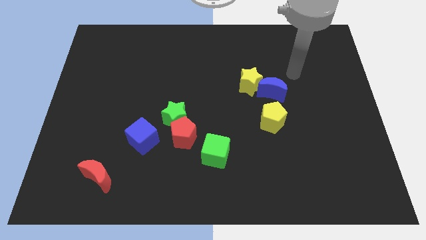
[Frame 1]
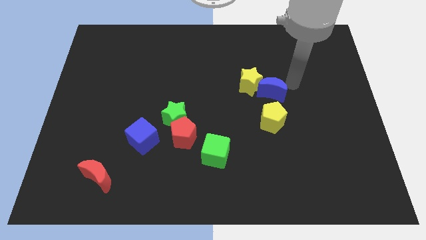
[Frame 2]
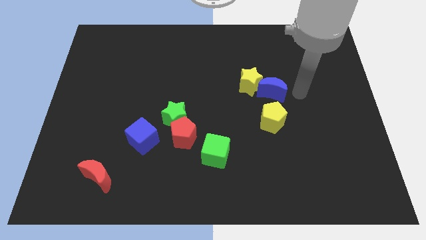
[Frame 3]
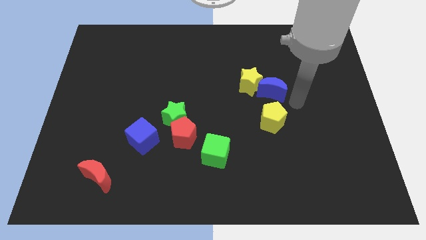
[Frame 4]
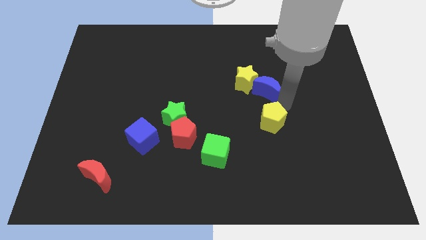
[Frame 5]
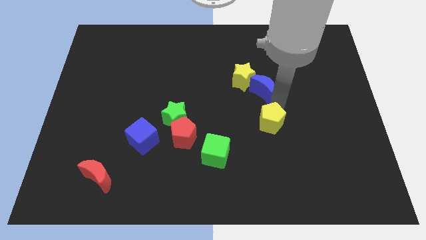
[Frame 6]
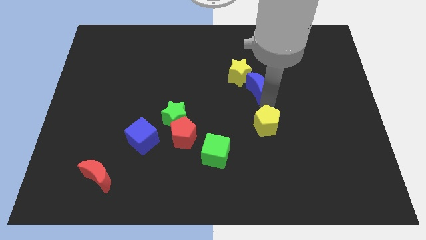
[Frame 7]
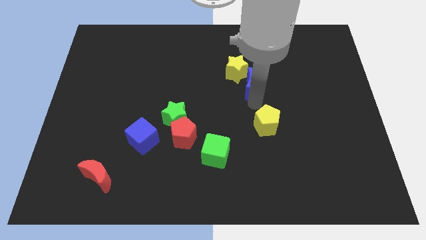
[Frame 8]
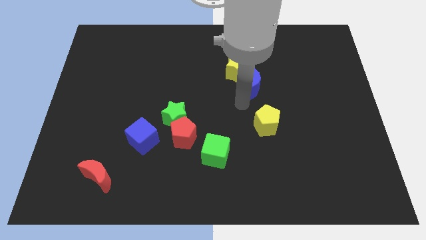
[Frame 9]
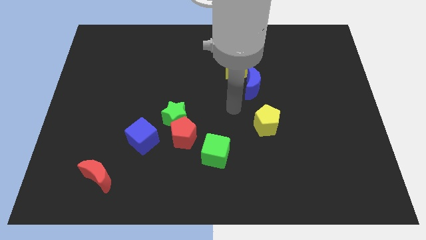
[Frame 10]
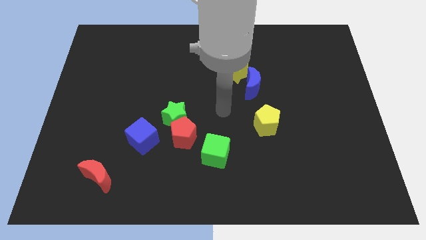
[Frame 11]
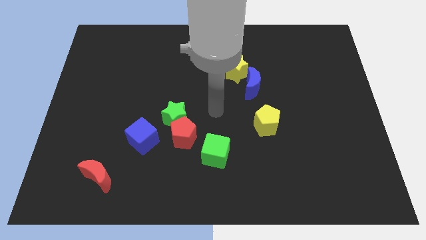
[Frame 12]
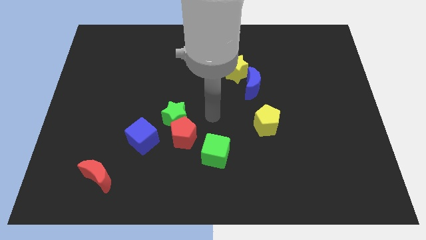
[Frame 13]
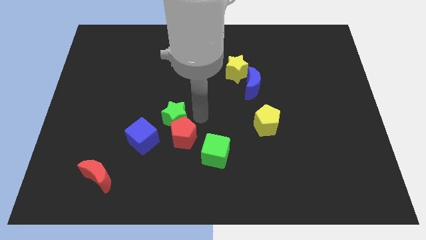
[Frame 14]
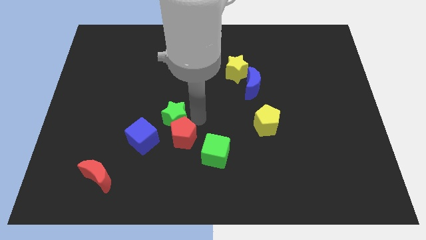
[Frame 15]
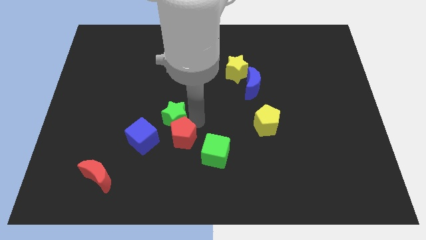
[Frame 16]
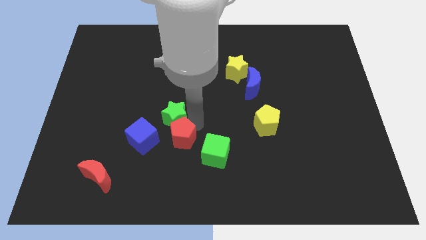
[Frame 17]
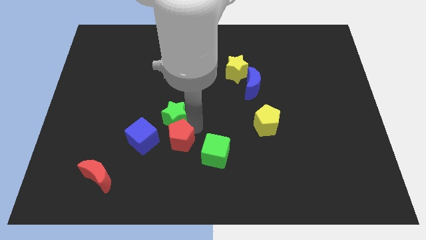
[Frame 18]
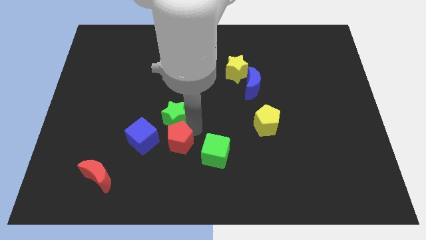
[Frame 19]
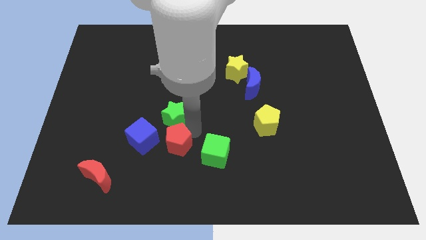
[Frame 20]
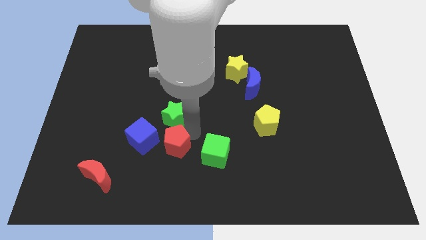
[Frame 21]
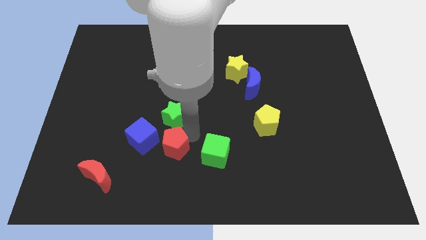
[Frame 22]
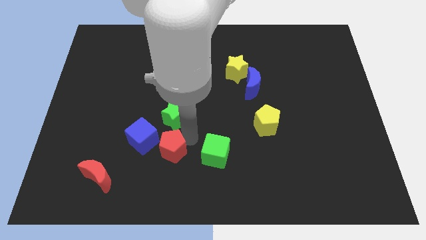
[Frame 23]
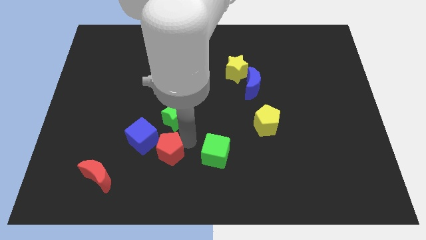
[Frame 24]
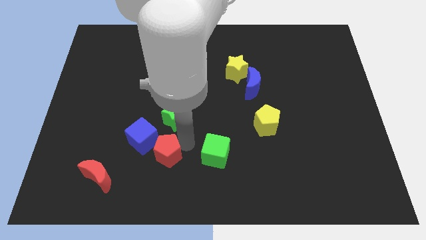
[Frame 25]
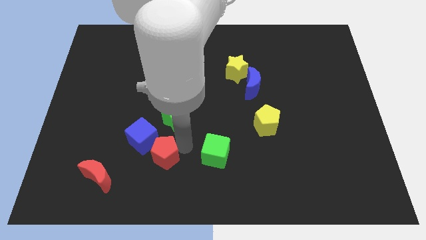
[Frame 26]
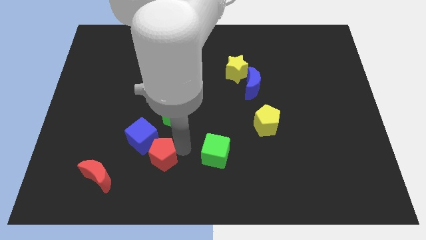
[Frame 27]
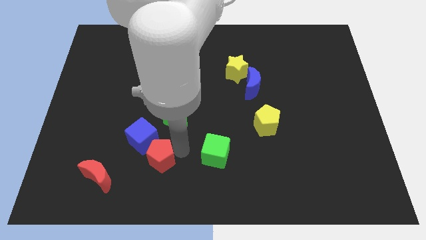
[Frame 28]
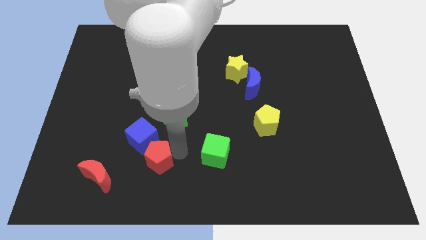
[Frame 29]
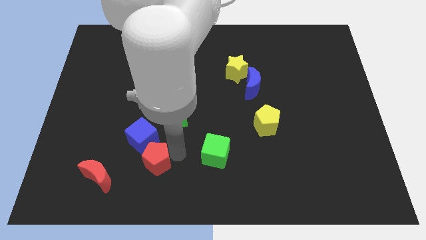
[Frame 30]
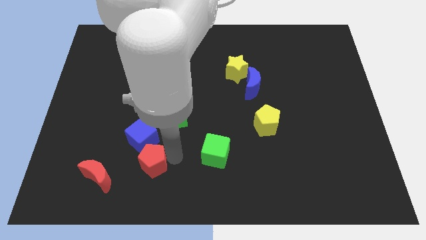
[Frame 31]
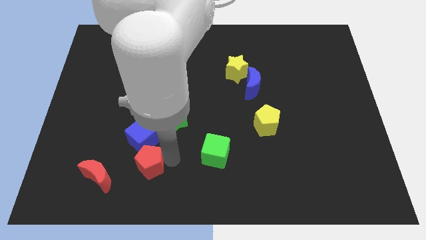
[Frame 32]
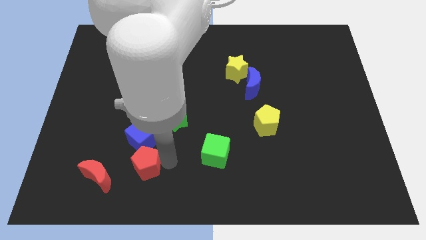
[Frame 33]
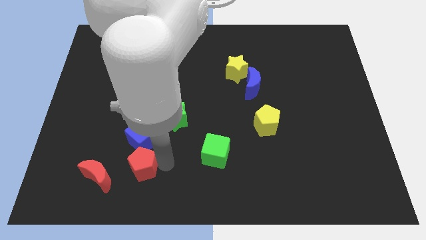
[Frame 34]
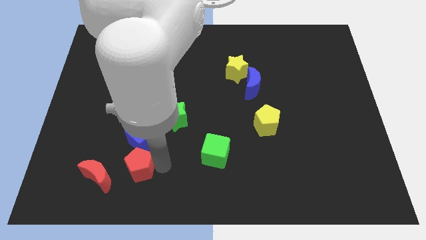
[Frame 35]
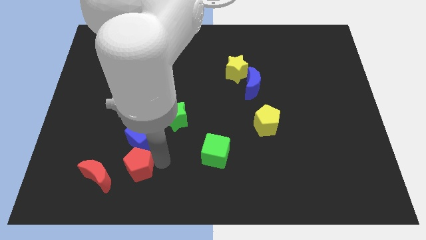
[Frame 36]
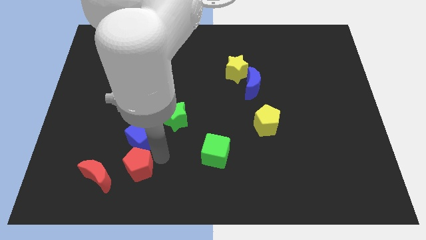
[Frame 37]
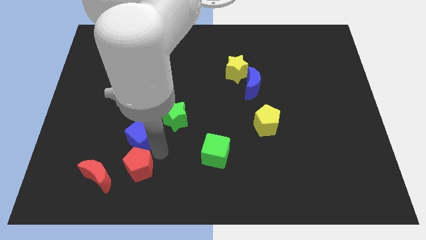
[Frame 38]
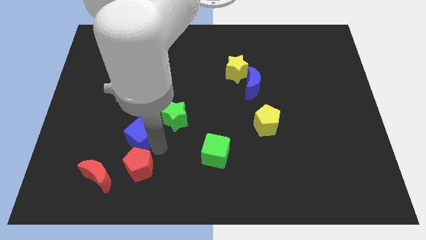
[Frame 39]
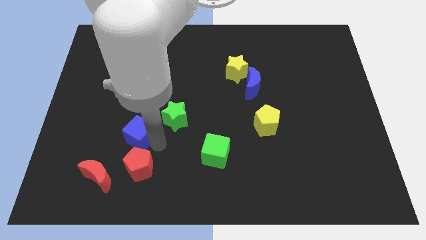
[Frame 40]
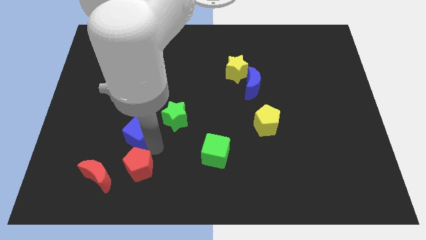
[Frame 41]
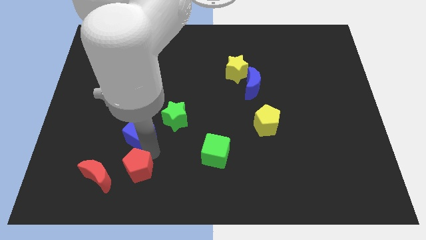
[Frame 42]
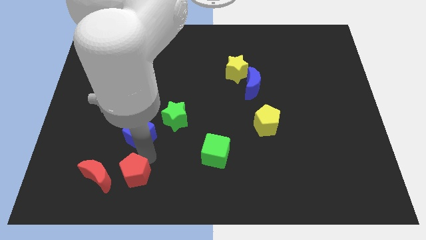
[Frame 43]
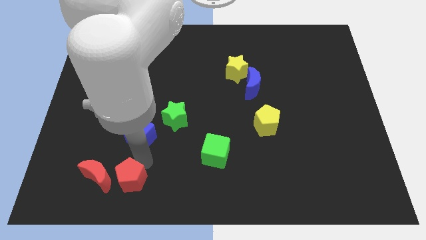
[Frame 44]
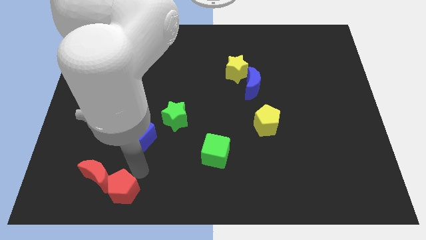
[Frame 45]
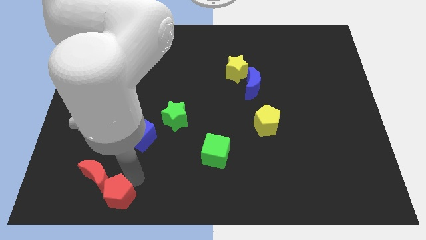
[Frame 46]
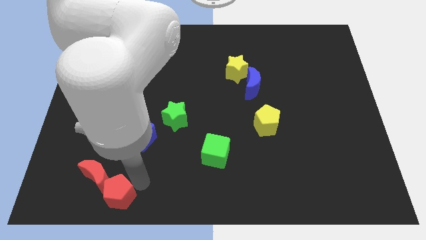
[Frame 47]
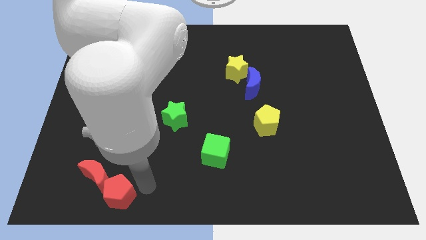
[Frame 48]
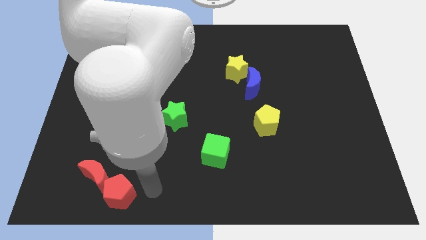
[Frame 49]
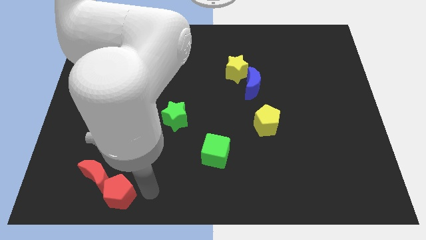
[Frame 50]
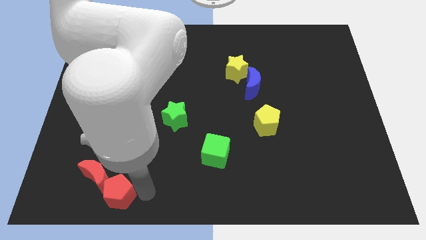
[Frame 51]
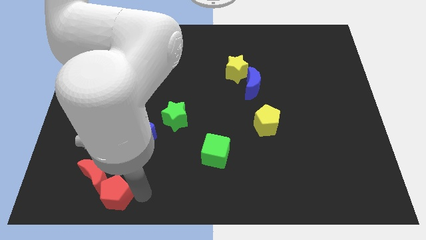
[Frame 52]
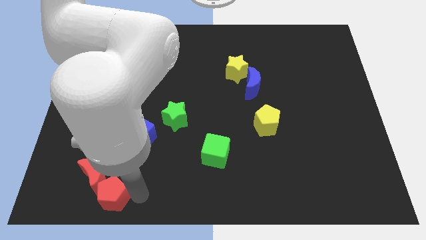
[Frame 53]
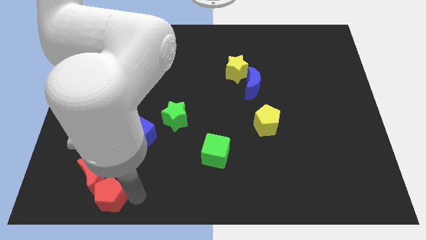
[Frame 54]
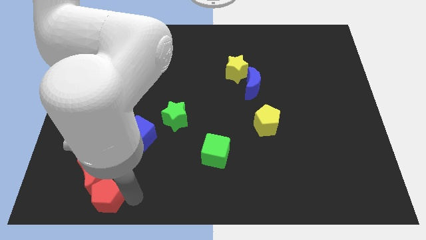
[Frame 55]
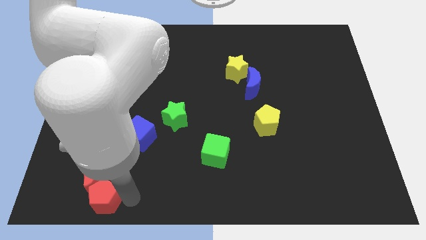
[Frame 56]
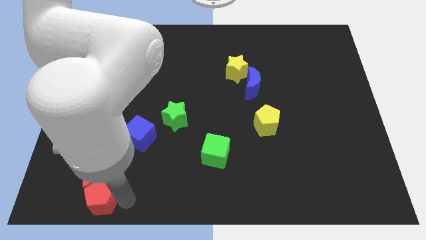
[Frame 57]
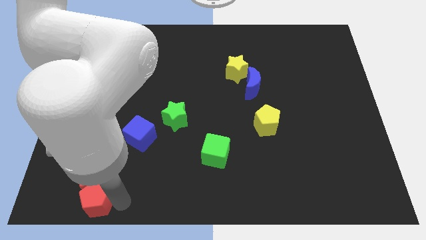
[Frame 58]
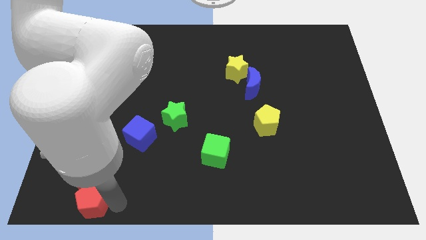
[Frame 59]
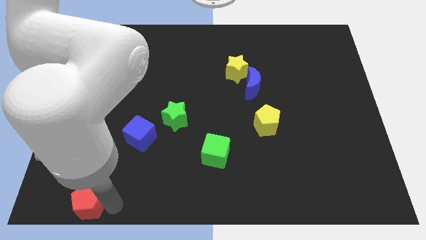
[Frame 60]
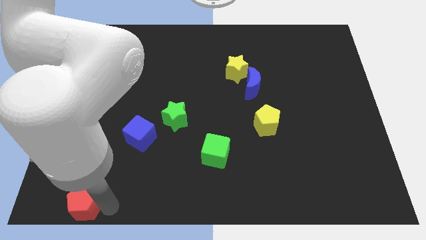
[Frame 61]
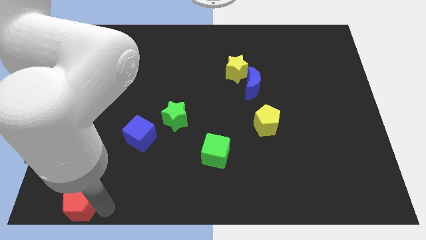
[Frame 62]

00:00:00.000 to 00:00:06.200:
move the red pentagon to the lower left corner

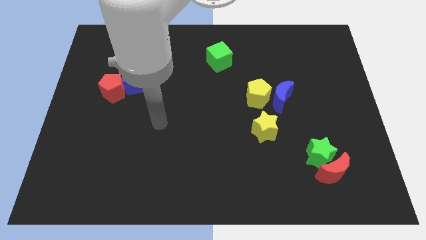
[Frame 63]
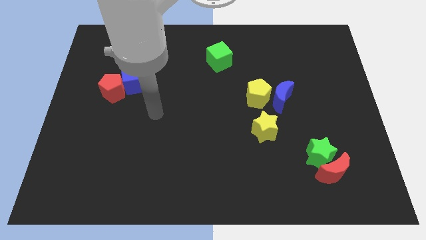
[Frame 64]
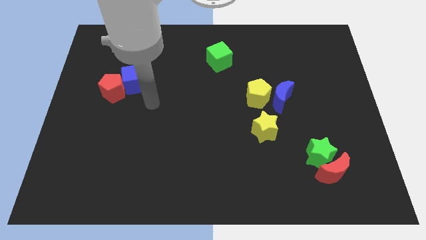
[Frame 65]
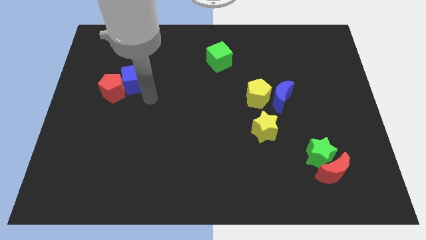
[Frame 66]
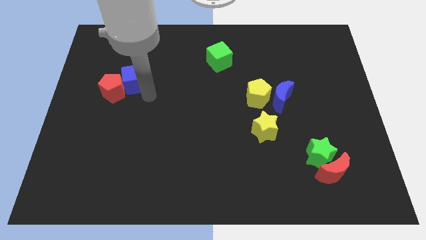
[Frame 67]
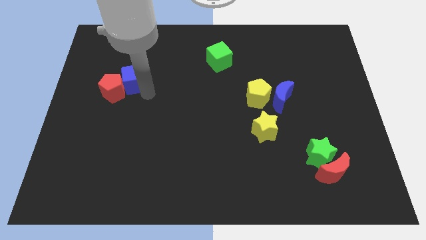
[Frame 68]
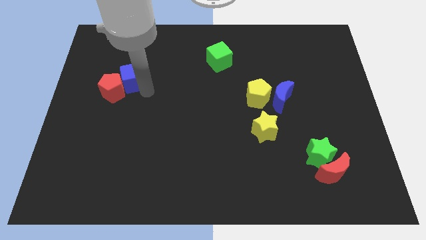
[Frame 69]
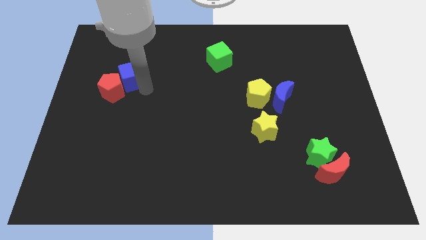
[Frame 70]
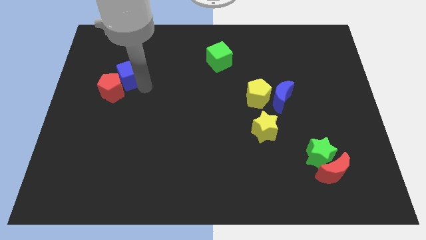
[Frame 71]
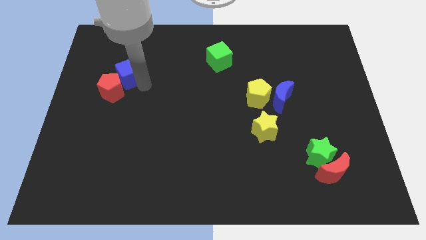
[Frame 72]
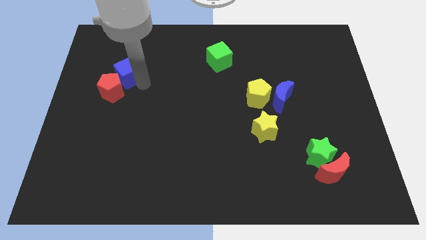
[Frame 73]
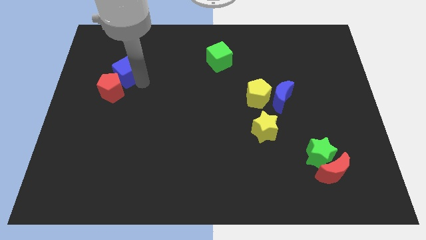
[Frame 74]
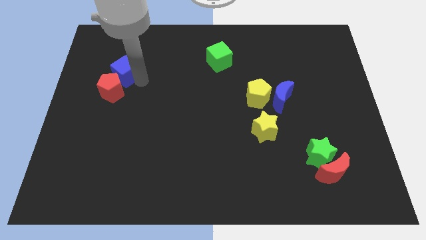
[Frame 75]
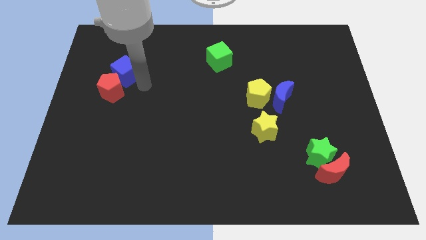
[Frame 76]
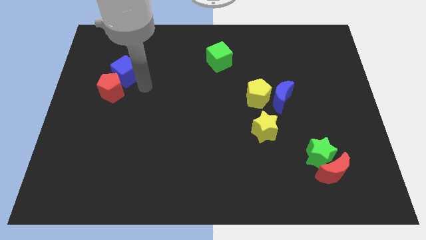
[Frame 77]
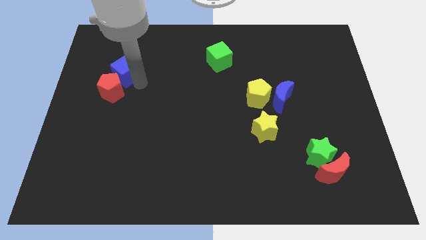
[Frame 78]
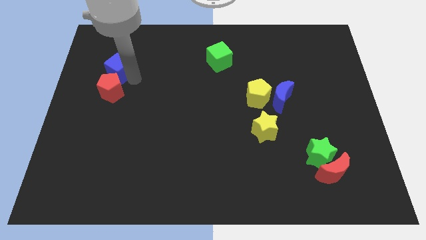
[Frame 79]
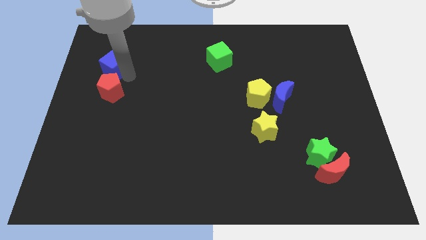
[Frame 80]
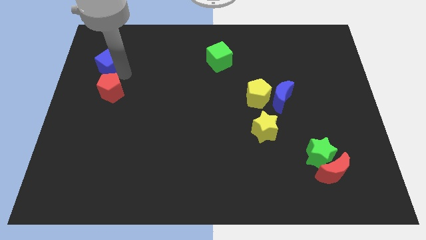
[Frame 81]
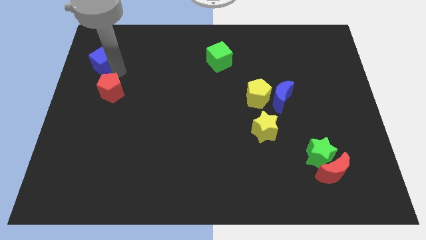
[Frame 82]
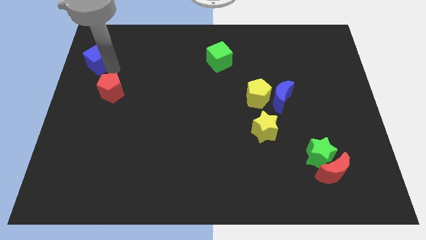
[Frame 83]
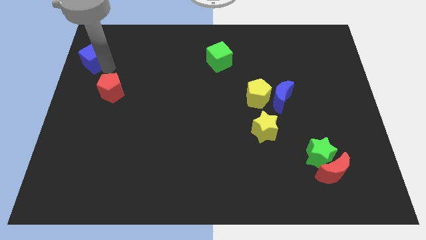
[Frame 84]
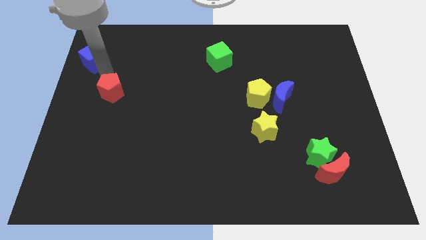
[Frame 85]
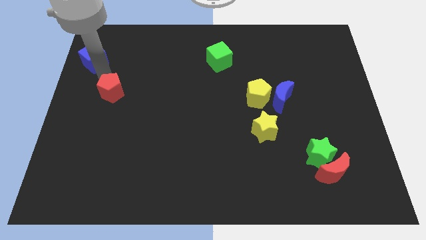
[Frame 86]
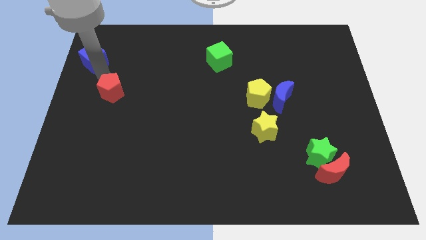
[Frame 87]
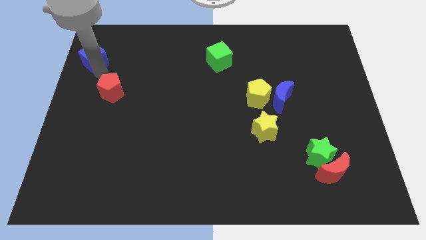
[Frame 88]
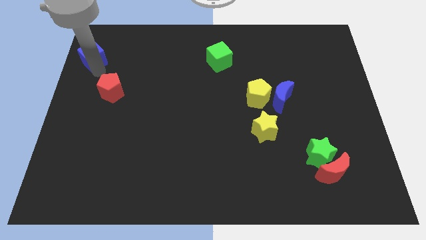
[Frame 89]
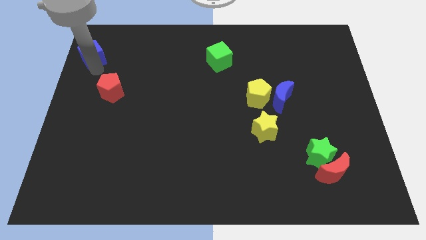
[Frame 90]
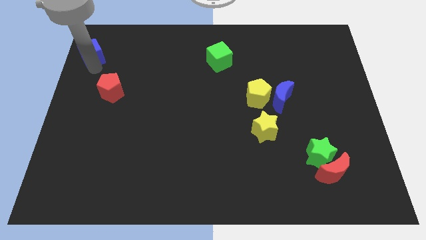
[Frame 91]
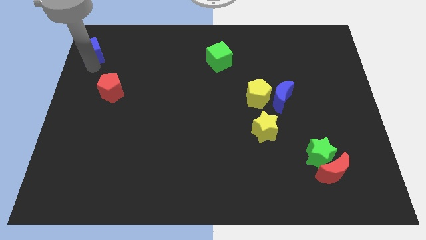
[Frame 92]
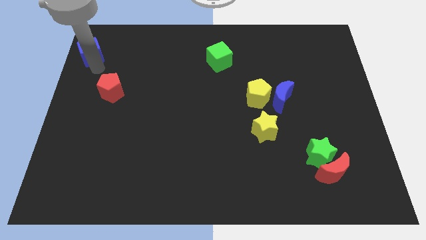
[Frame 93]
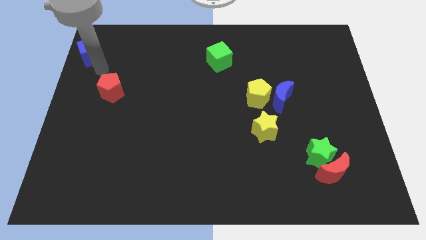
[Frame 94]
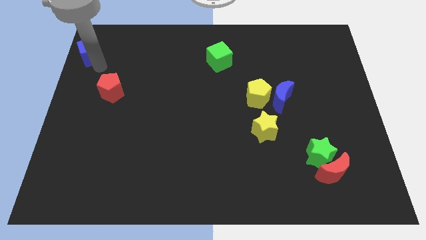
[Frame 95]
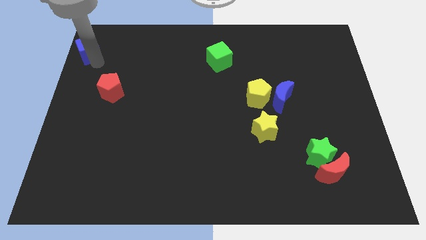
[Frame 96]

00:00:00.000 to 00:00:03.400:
push the blue cube to the upper left corner
